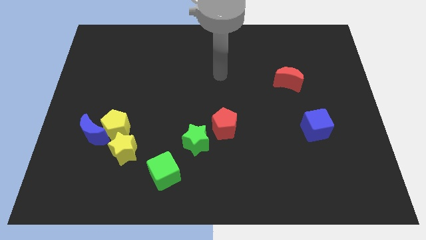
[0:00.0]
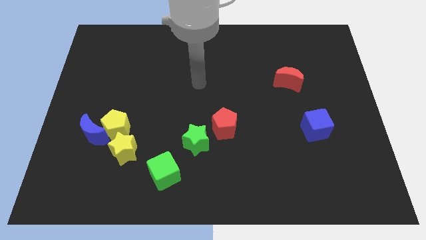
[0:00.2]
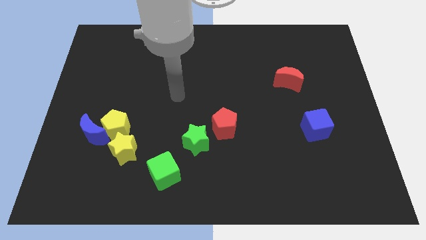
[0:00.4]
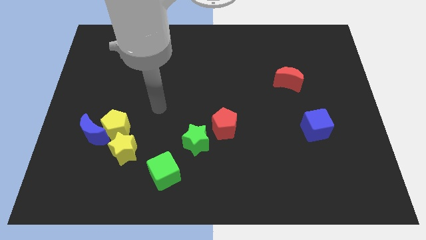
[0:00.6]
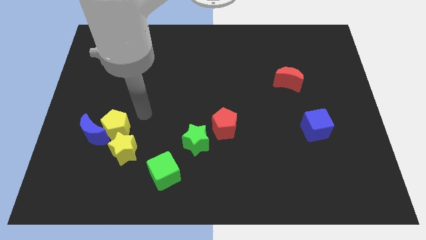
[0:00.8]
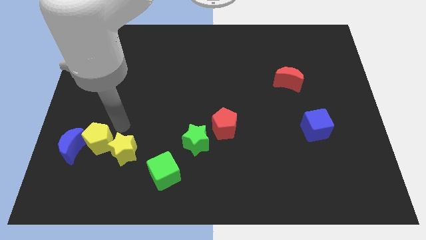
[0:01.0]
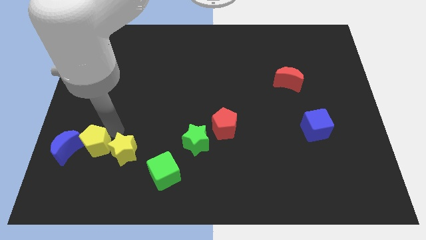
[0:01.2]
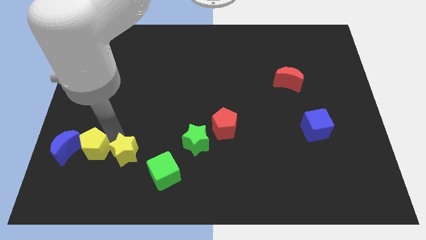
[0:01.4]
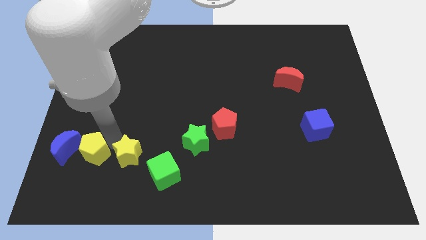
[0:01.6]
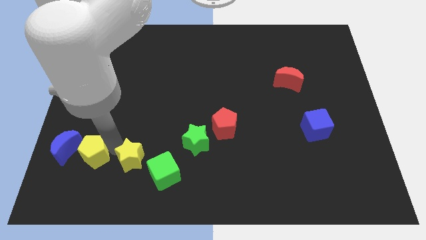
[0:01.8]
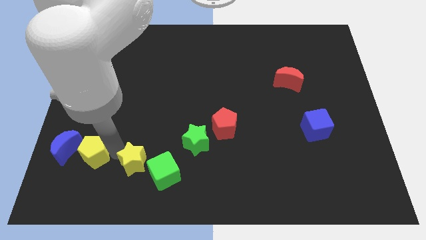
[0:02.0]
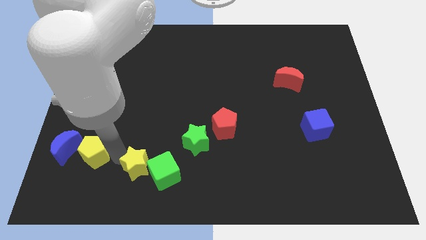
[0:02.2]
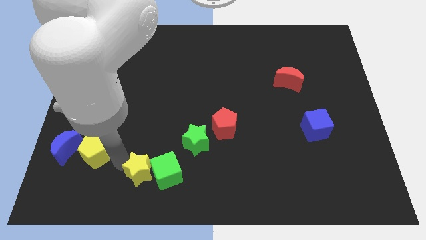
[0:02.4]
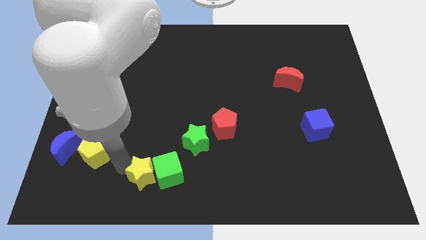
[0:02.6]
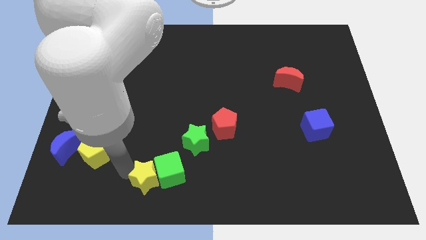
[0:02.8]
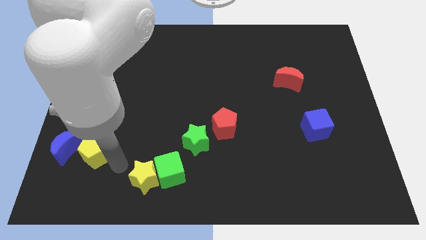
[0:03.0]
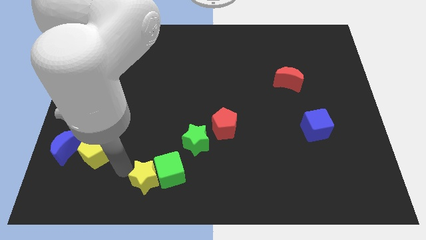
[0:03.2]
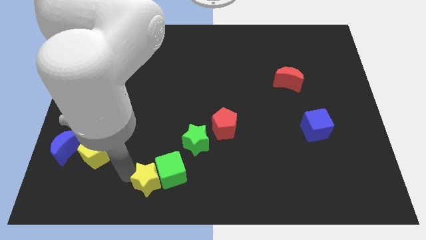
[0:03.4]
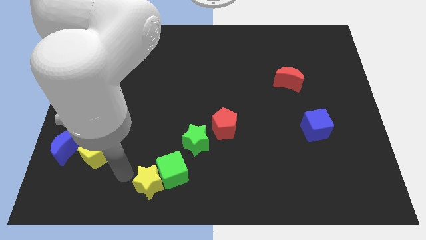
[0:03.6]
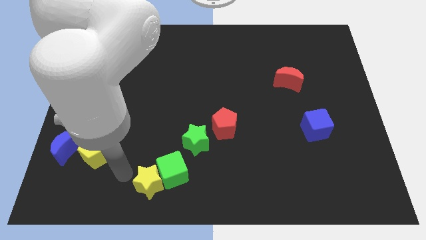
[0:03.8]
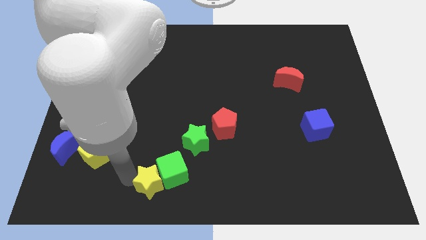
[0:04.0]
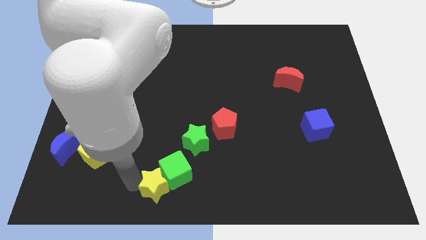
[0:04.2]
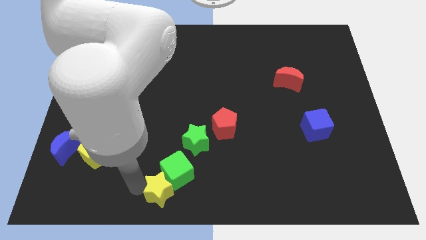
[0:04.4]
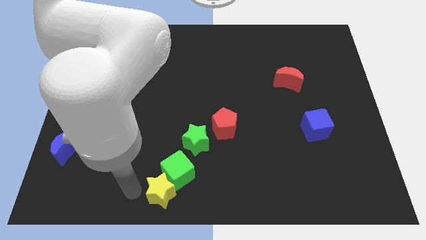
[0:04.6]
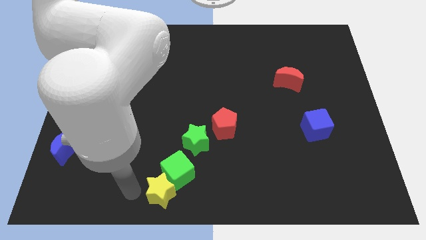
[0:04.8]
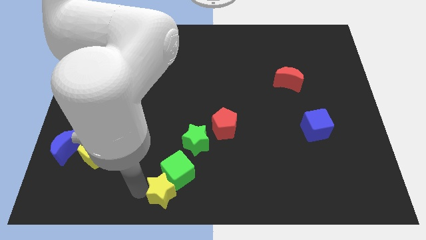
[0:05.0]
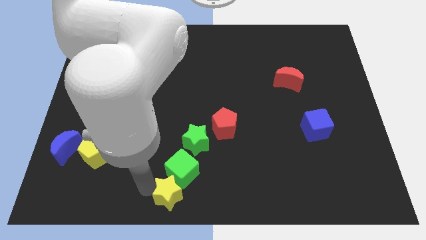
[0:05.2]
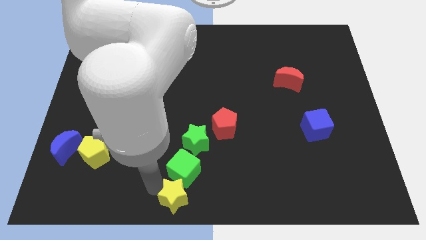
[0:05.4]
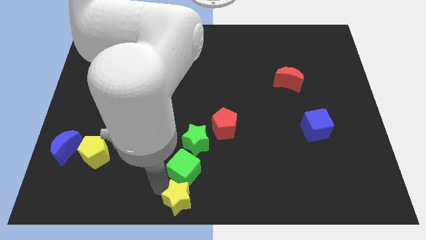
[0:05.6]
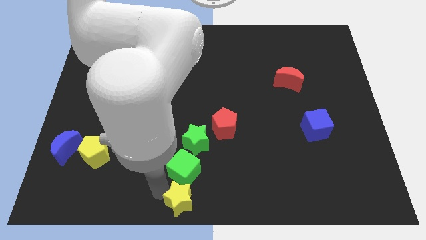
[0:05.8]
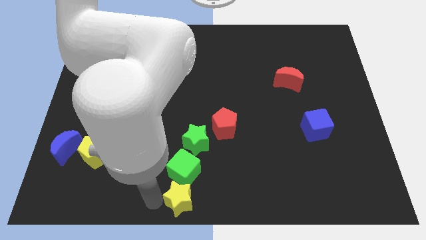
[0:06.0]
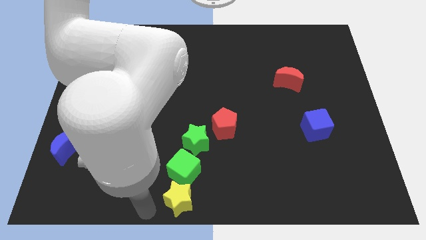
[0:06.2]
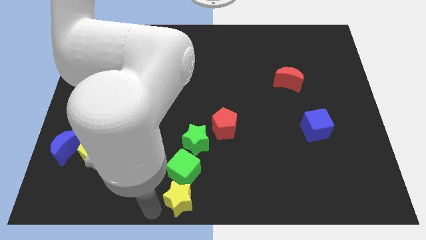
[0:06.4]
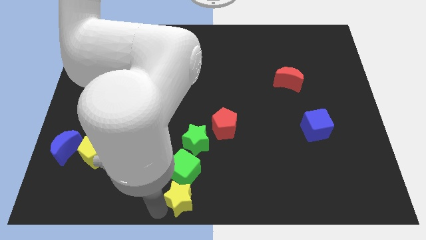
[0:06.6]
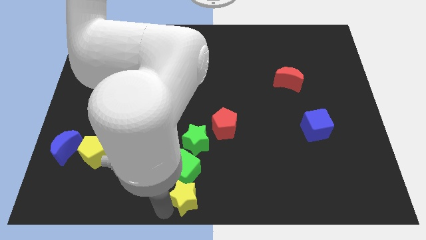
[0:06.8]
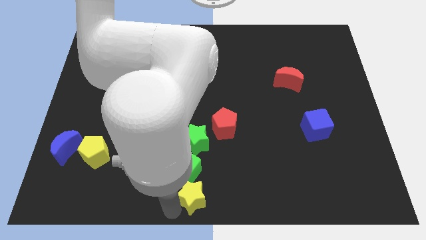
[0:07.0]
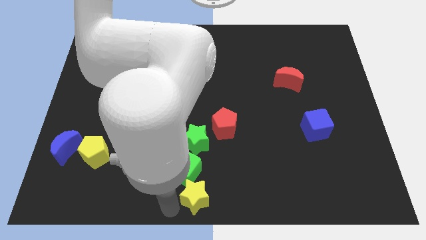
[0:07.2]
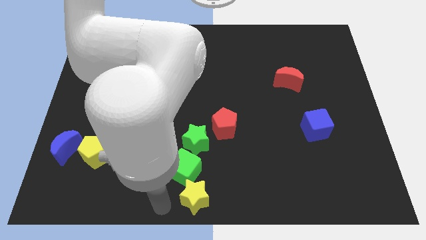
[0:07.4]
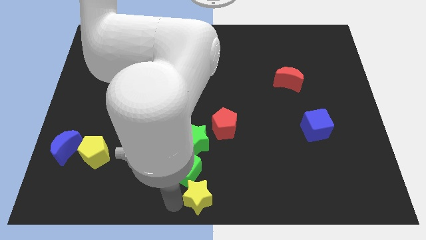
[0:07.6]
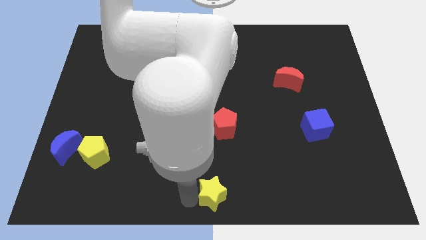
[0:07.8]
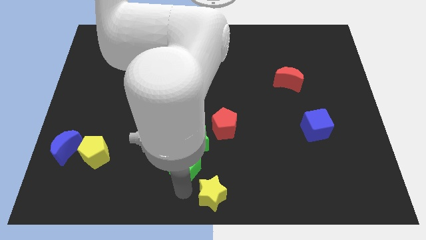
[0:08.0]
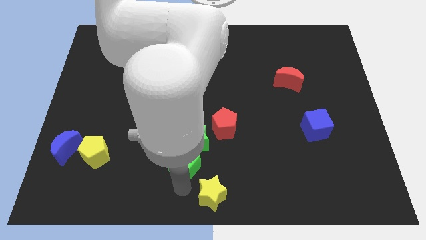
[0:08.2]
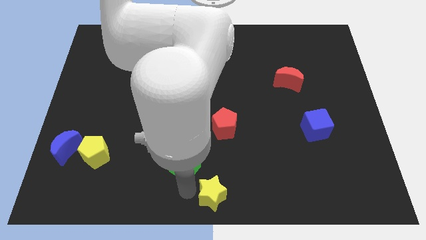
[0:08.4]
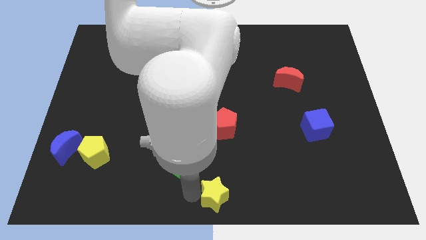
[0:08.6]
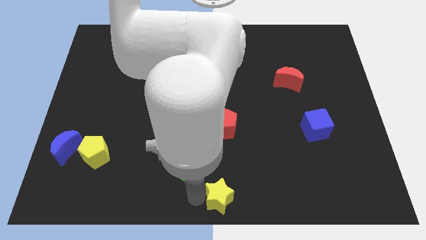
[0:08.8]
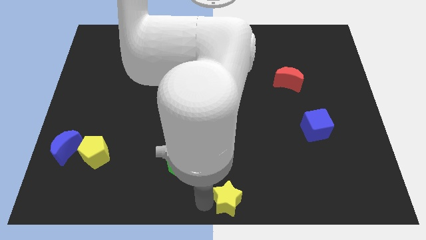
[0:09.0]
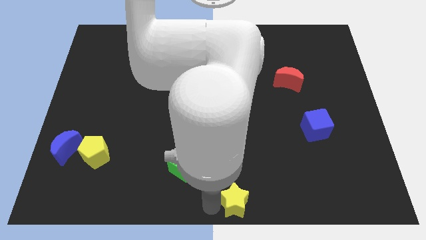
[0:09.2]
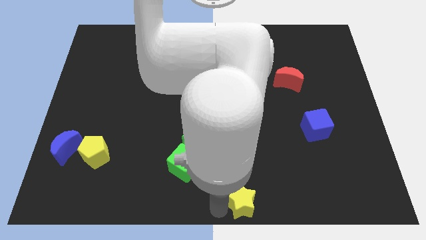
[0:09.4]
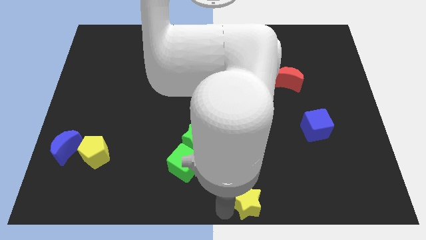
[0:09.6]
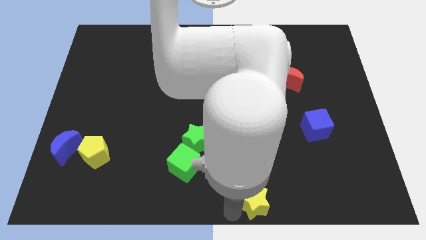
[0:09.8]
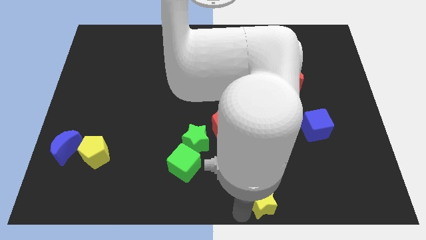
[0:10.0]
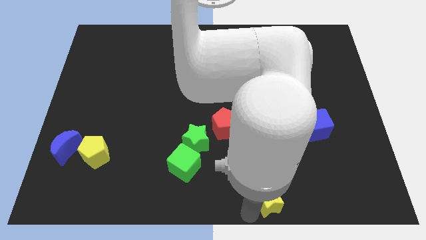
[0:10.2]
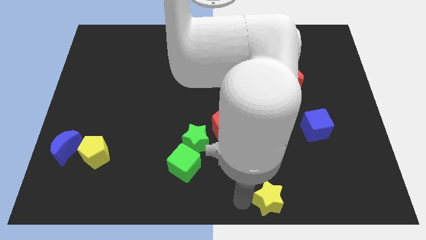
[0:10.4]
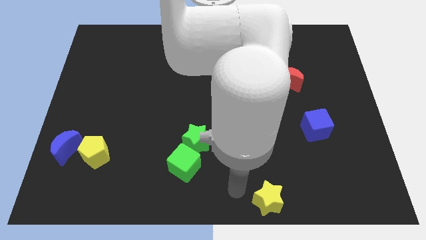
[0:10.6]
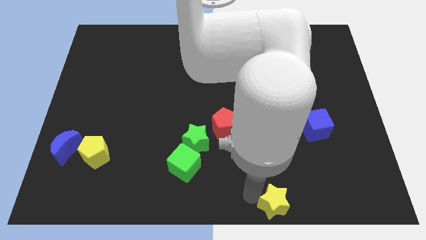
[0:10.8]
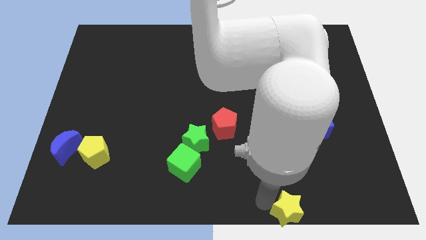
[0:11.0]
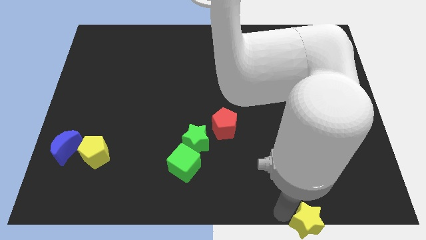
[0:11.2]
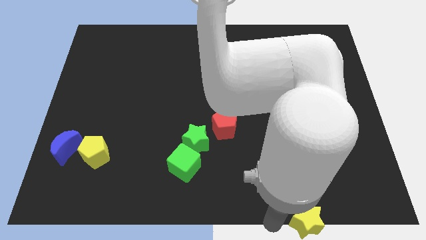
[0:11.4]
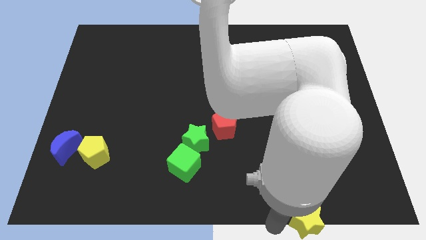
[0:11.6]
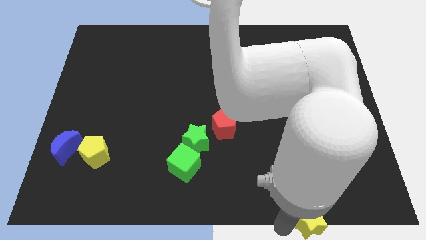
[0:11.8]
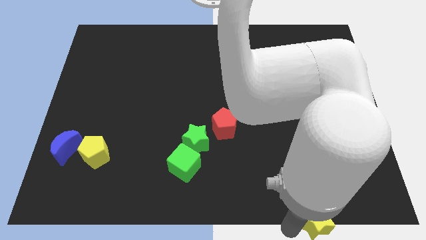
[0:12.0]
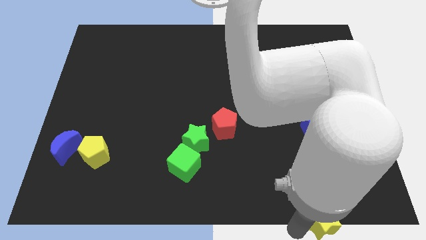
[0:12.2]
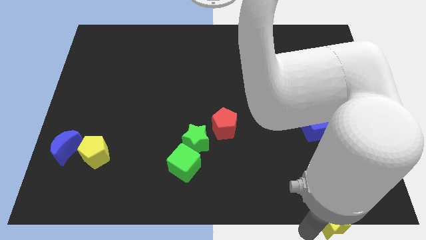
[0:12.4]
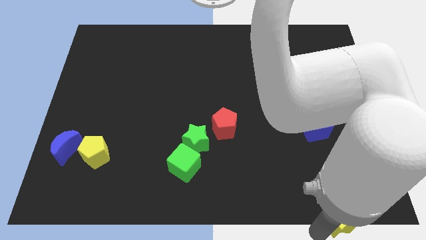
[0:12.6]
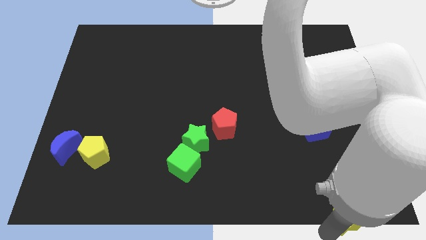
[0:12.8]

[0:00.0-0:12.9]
slide the yellow star to the bottom right

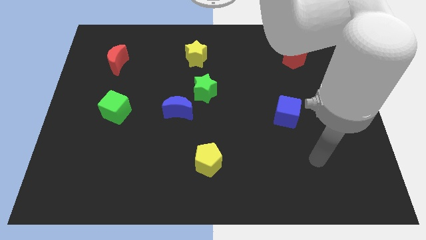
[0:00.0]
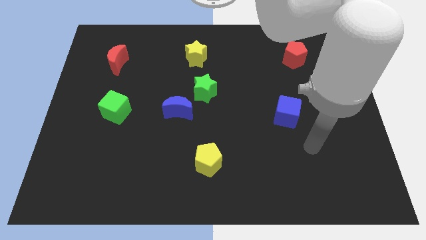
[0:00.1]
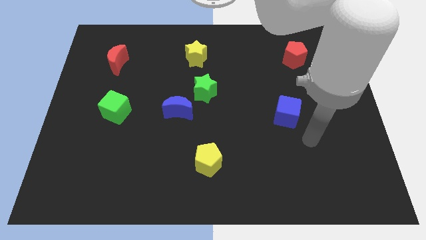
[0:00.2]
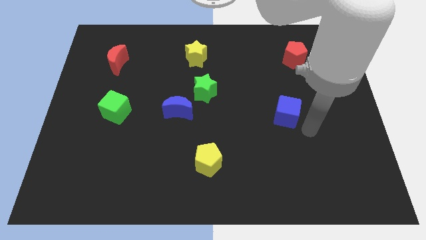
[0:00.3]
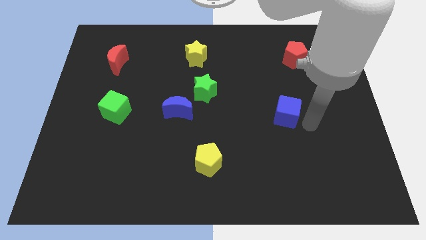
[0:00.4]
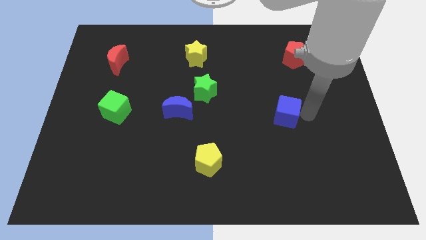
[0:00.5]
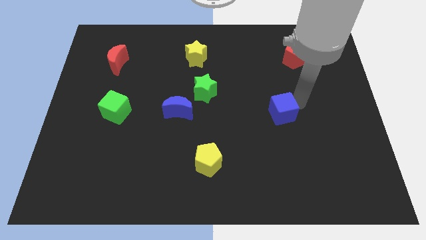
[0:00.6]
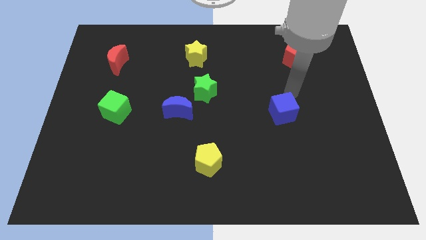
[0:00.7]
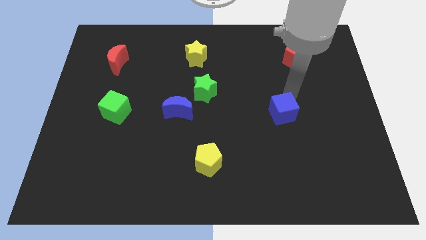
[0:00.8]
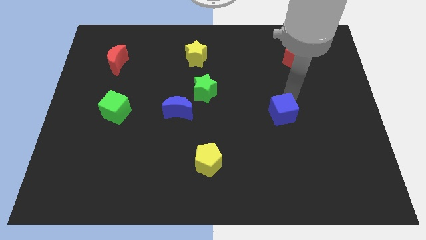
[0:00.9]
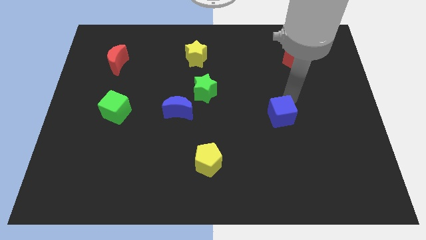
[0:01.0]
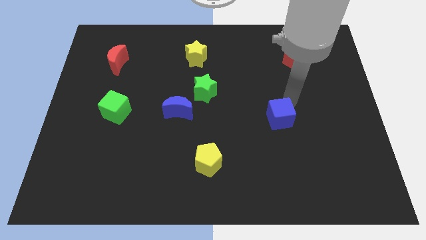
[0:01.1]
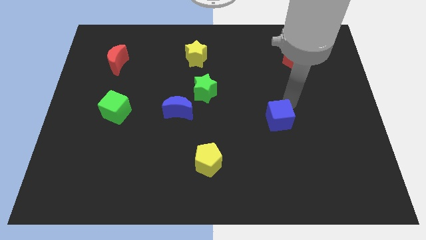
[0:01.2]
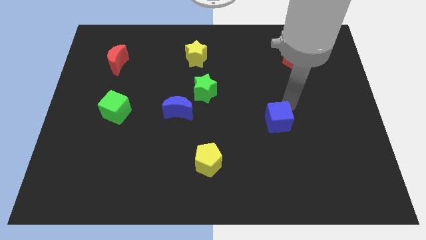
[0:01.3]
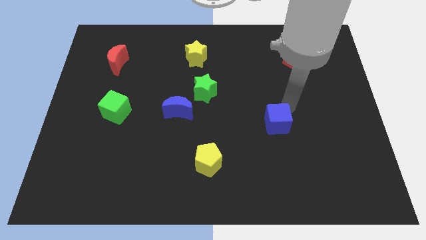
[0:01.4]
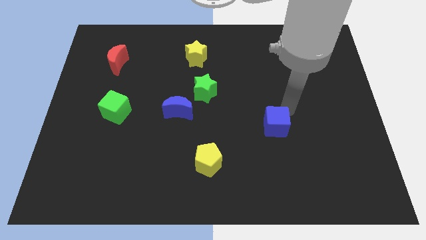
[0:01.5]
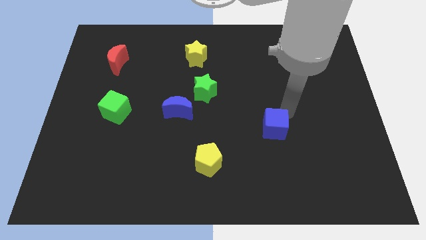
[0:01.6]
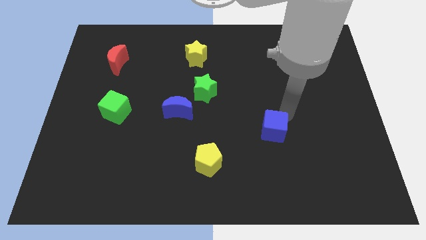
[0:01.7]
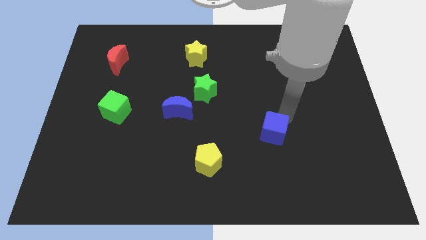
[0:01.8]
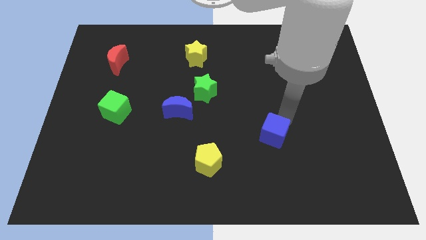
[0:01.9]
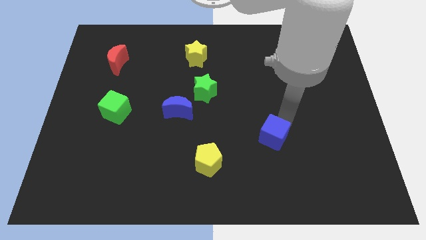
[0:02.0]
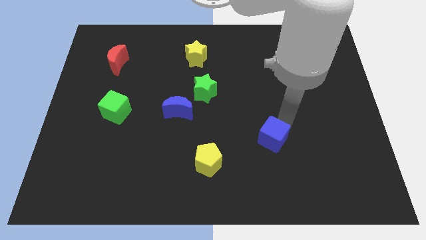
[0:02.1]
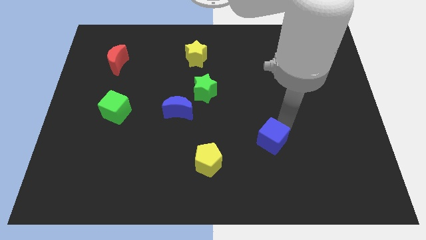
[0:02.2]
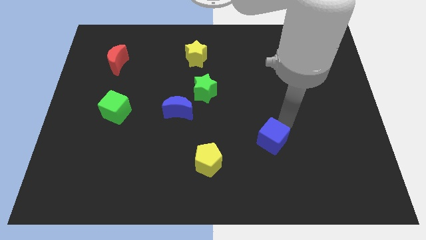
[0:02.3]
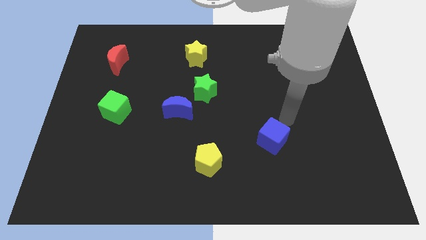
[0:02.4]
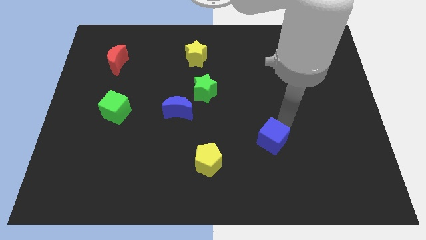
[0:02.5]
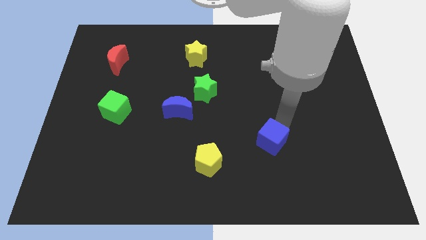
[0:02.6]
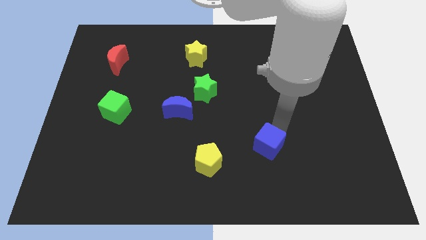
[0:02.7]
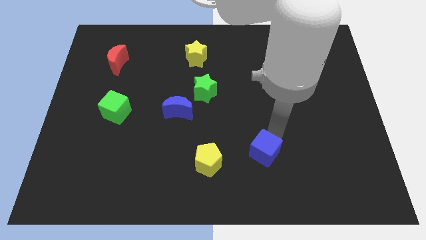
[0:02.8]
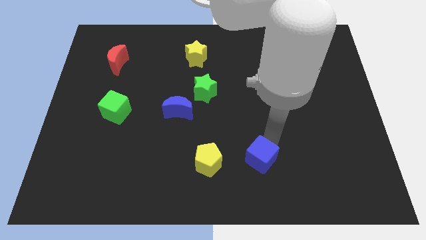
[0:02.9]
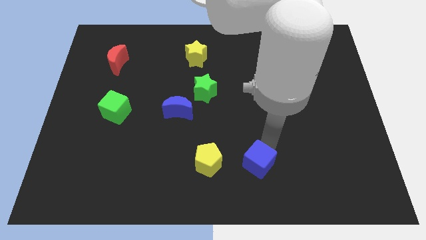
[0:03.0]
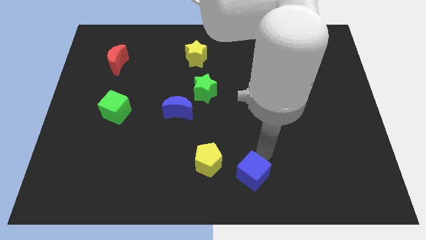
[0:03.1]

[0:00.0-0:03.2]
move the blue cube to the bottom side
